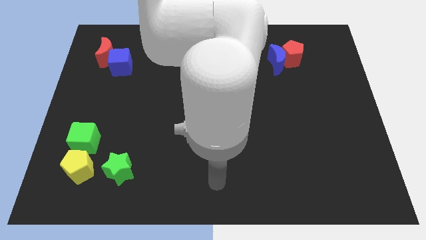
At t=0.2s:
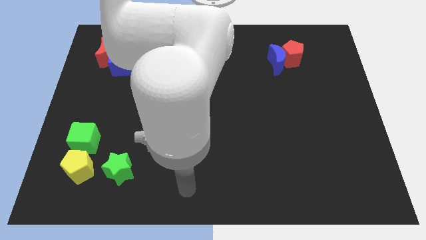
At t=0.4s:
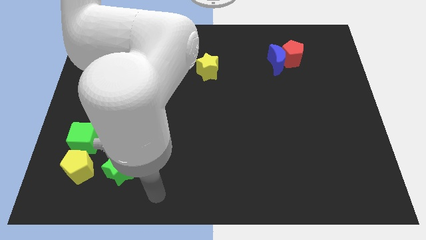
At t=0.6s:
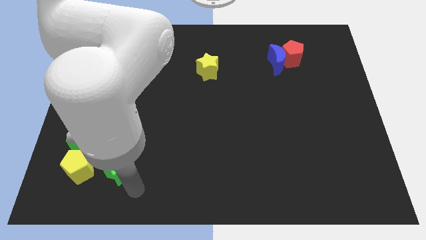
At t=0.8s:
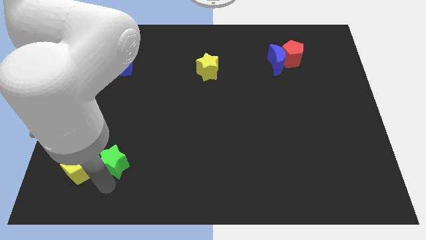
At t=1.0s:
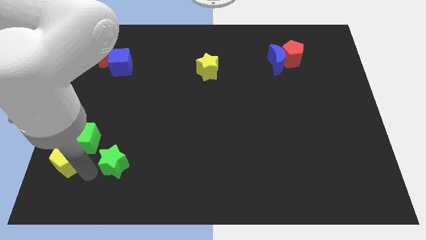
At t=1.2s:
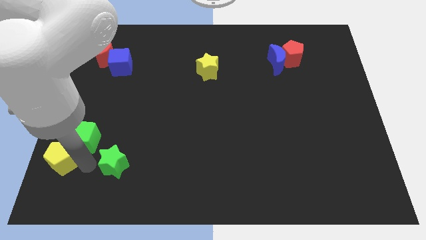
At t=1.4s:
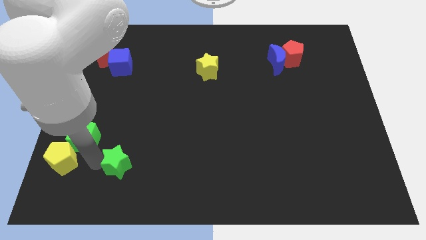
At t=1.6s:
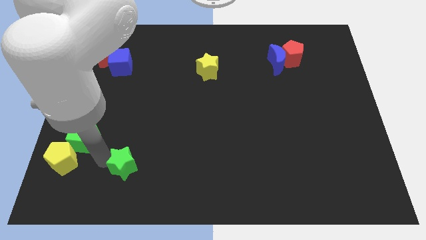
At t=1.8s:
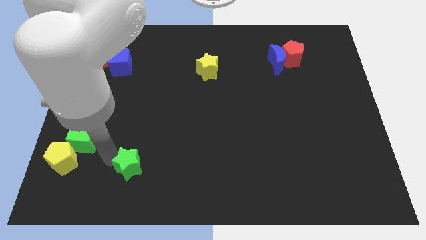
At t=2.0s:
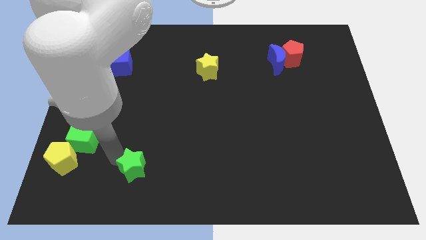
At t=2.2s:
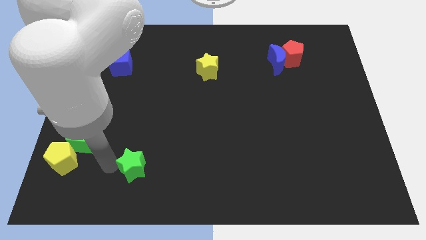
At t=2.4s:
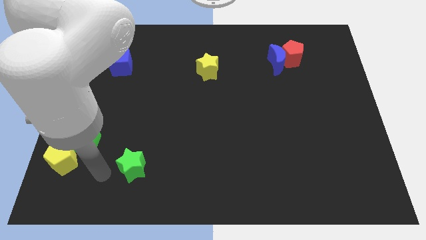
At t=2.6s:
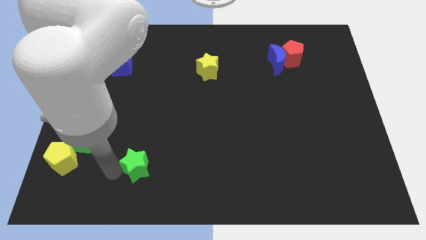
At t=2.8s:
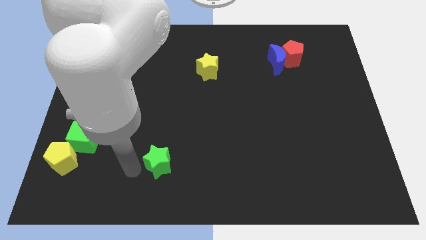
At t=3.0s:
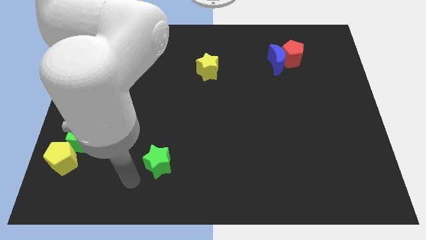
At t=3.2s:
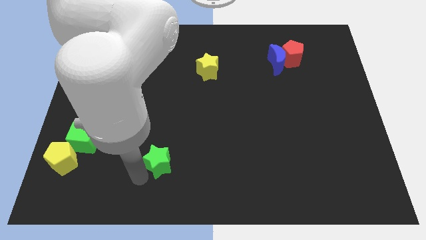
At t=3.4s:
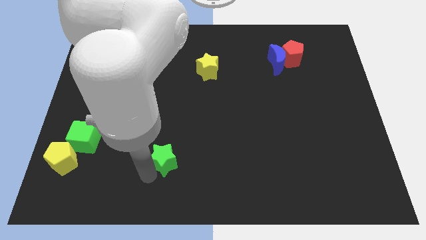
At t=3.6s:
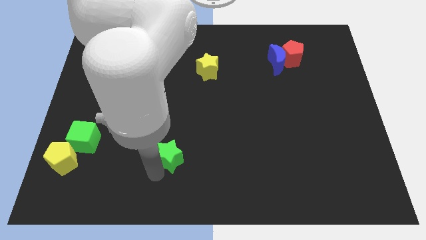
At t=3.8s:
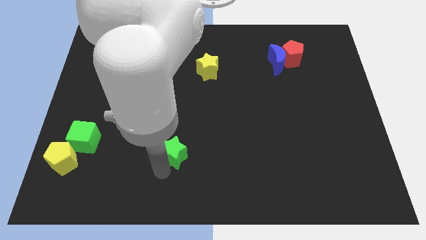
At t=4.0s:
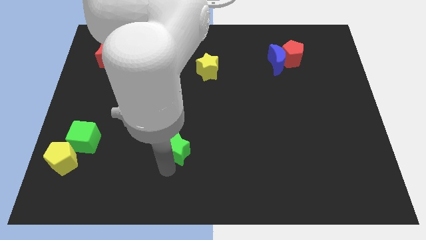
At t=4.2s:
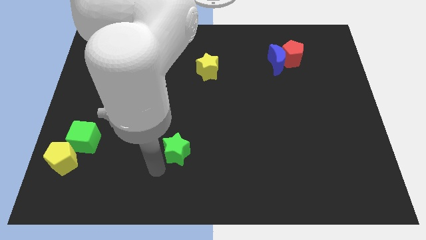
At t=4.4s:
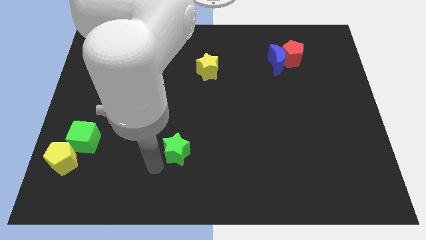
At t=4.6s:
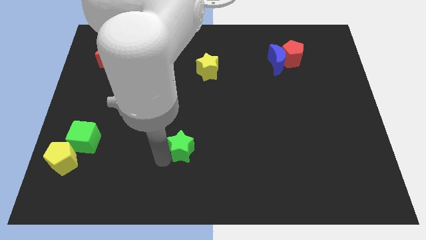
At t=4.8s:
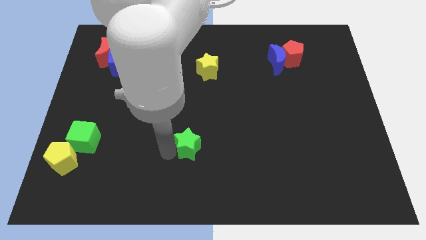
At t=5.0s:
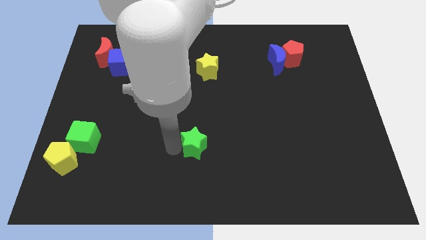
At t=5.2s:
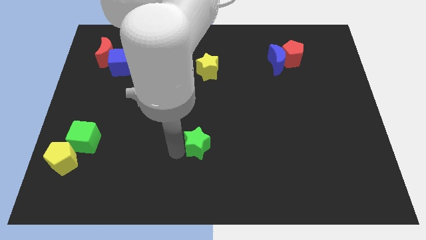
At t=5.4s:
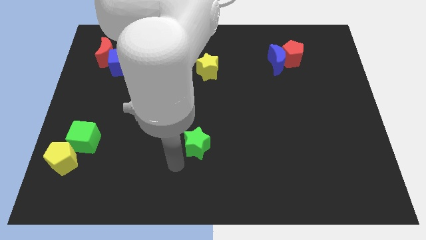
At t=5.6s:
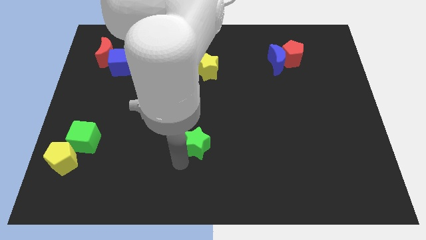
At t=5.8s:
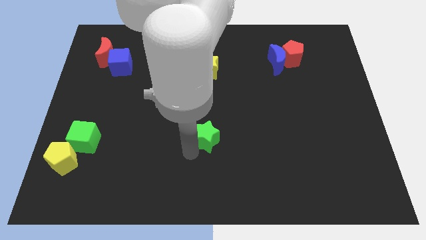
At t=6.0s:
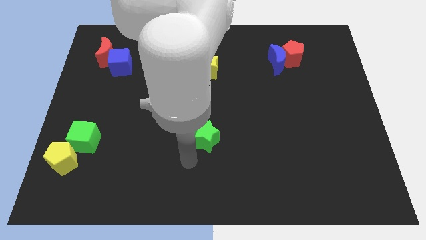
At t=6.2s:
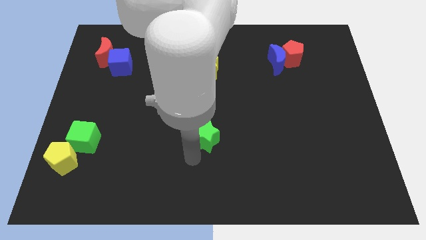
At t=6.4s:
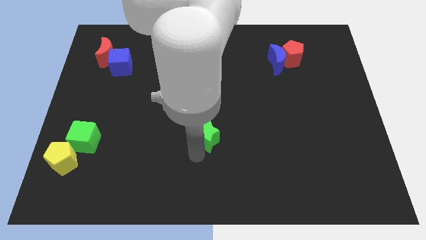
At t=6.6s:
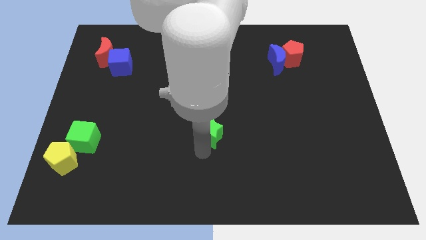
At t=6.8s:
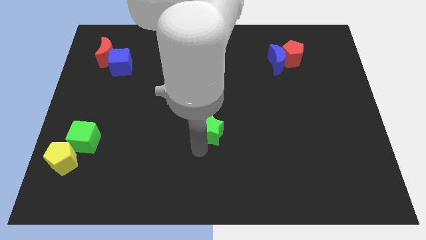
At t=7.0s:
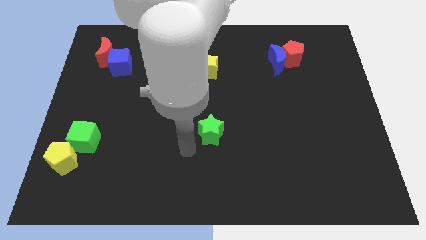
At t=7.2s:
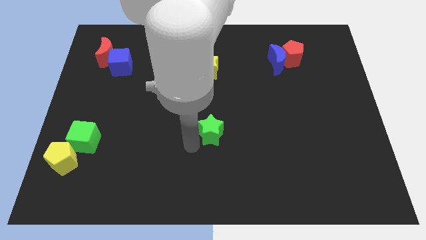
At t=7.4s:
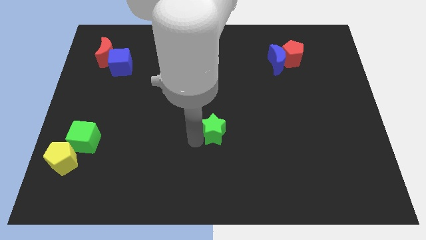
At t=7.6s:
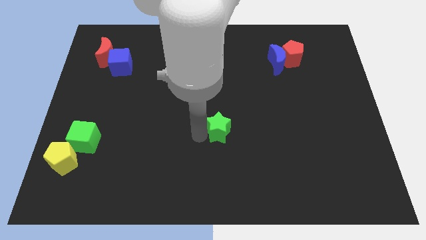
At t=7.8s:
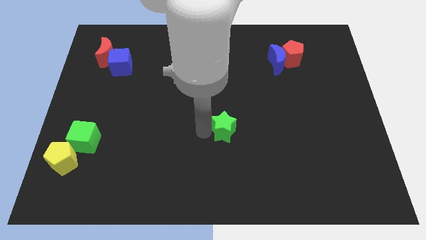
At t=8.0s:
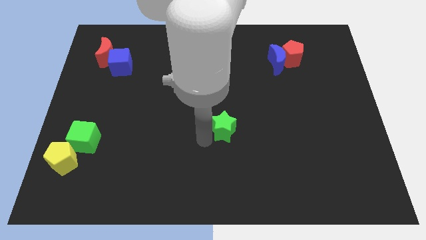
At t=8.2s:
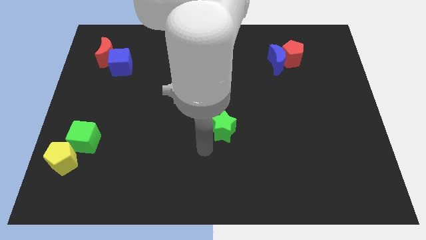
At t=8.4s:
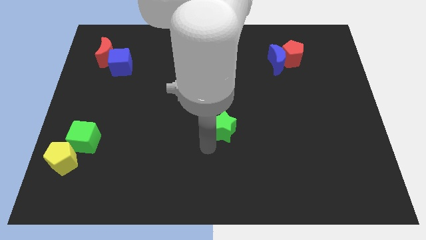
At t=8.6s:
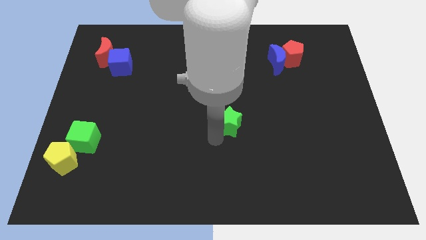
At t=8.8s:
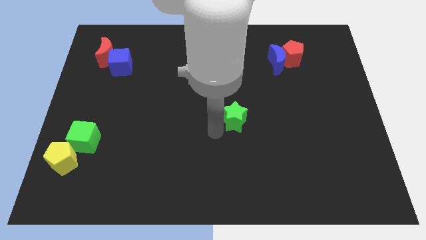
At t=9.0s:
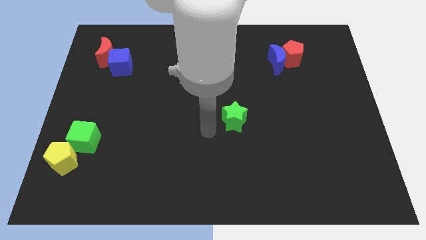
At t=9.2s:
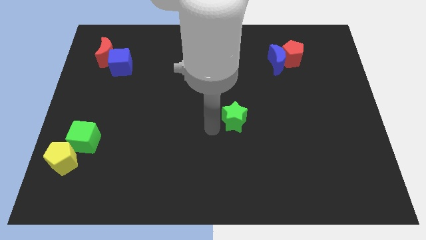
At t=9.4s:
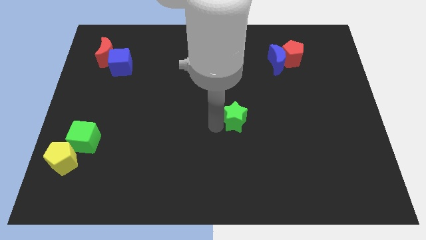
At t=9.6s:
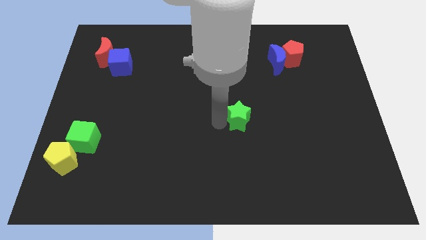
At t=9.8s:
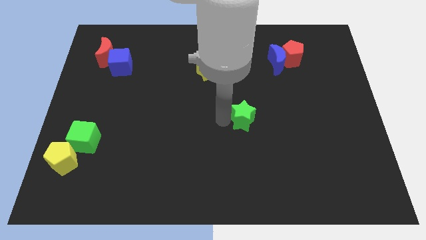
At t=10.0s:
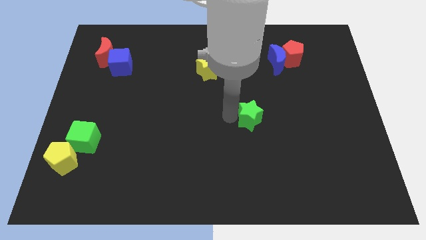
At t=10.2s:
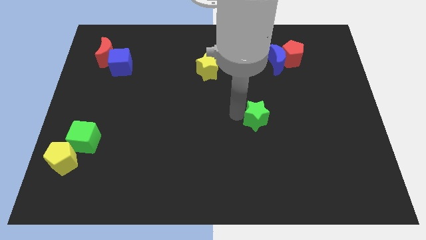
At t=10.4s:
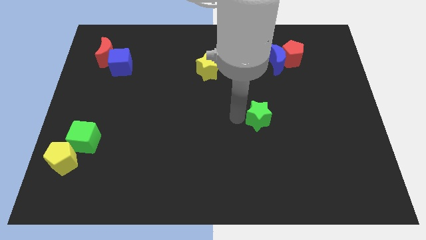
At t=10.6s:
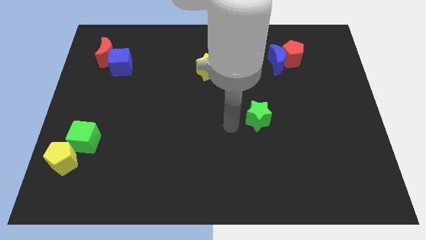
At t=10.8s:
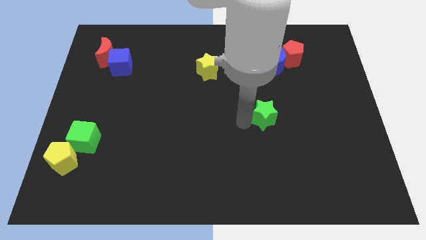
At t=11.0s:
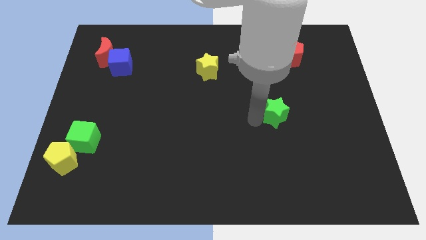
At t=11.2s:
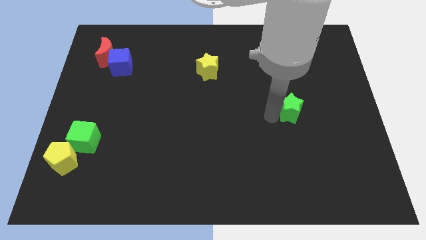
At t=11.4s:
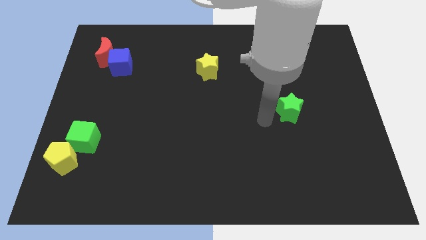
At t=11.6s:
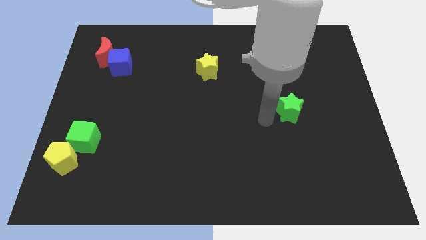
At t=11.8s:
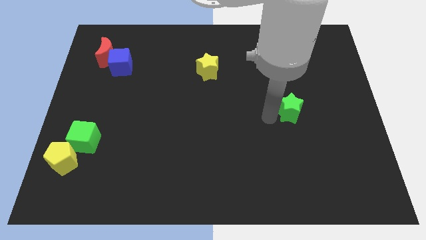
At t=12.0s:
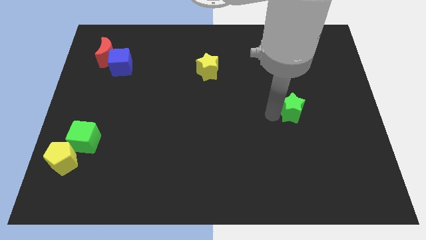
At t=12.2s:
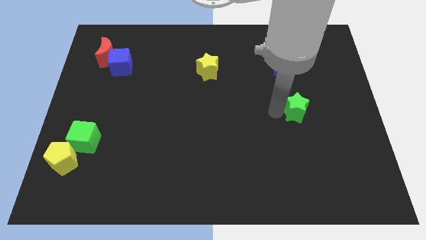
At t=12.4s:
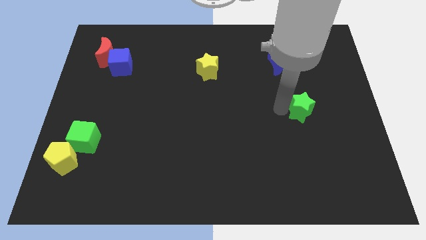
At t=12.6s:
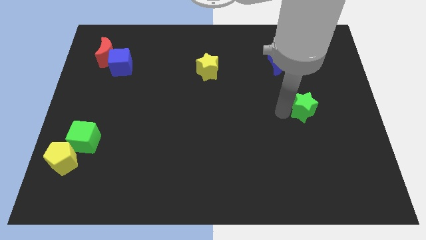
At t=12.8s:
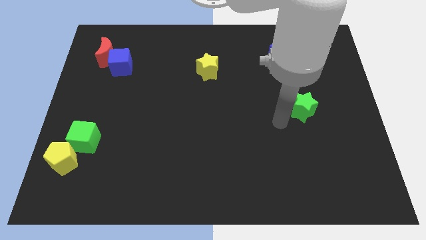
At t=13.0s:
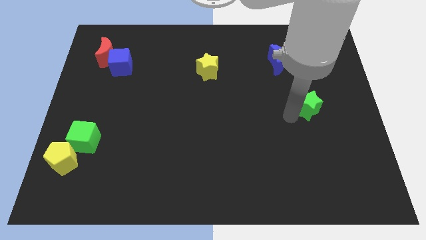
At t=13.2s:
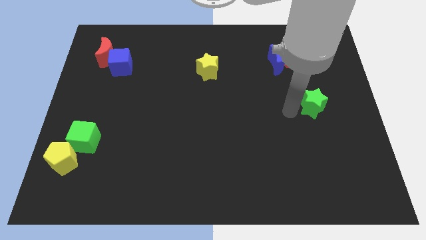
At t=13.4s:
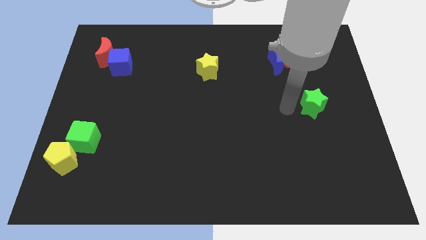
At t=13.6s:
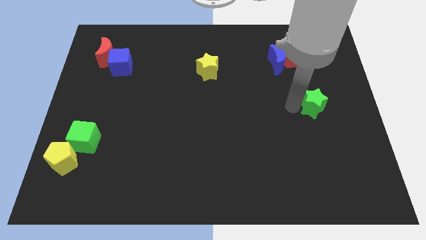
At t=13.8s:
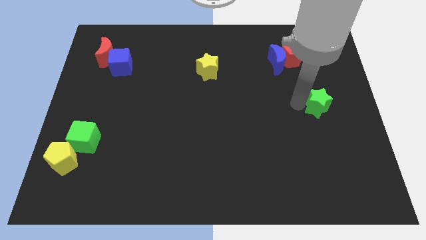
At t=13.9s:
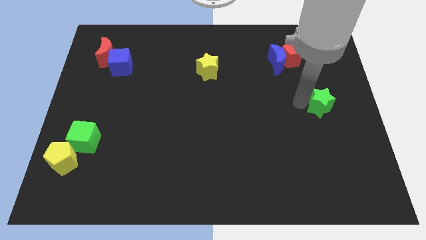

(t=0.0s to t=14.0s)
move the green star to the right side of the board

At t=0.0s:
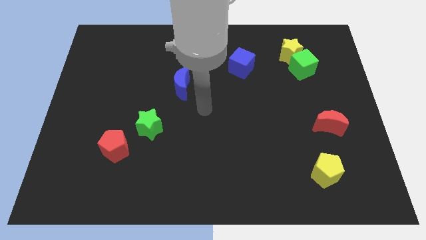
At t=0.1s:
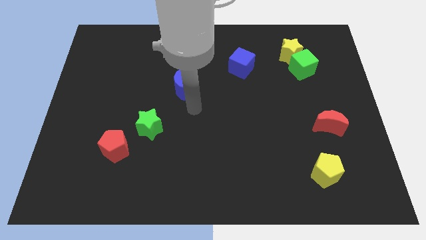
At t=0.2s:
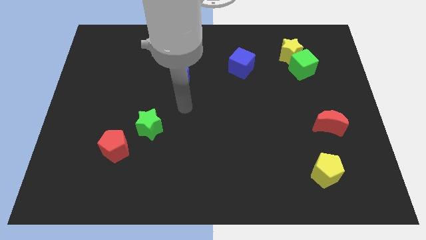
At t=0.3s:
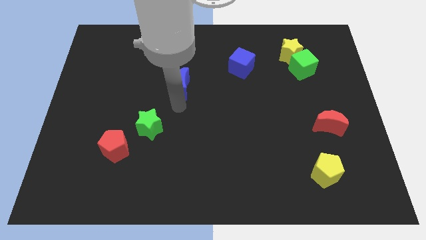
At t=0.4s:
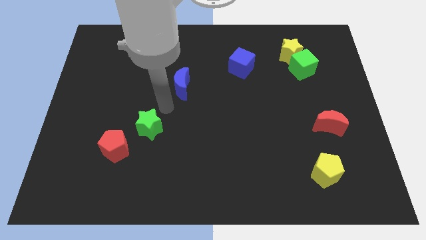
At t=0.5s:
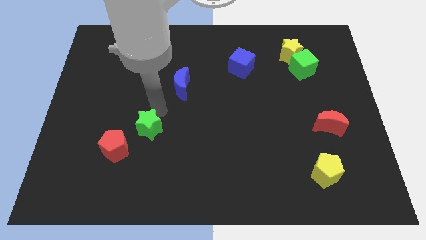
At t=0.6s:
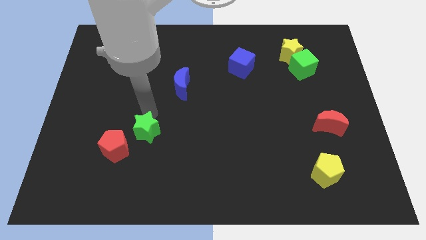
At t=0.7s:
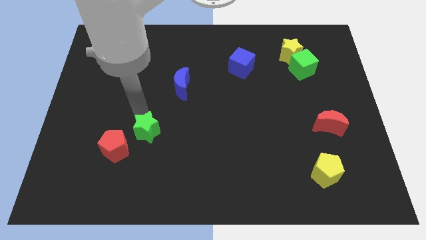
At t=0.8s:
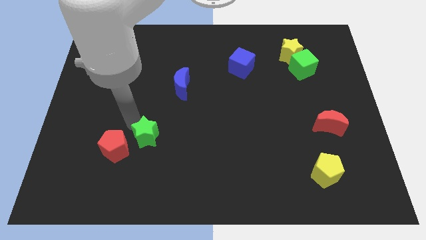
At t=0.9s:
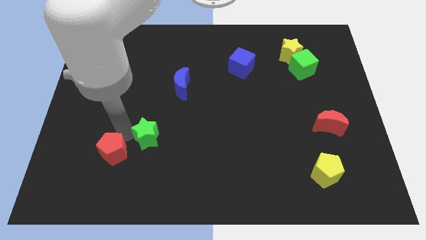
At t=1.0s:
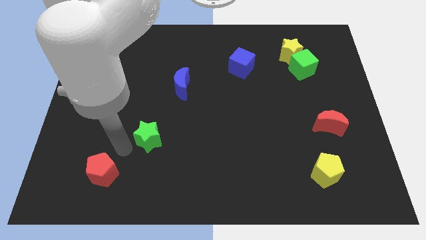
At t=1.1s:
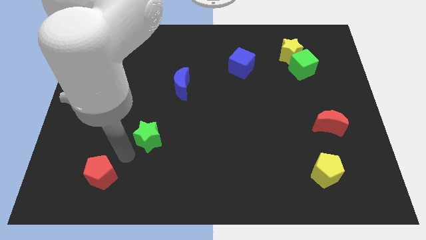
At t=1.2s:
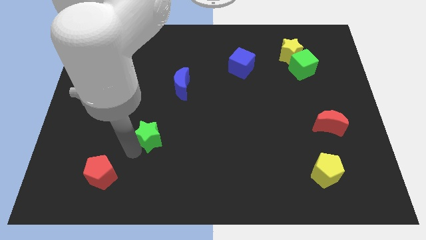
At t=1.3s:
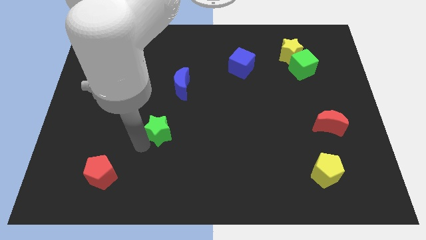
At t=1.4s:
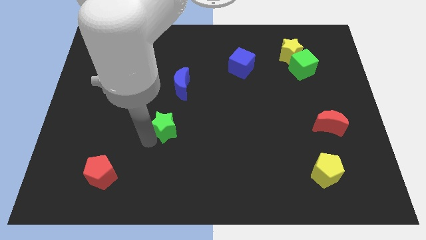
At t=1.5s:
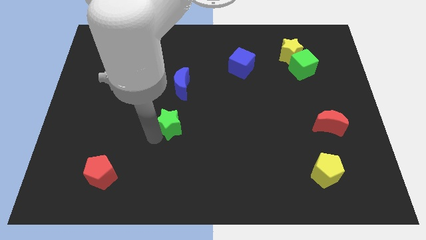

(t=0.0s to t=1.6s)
put the green star to the center of the board
